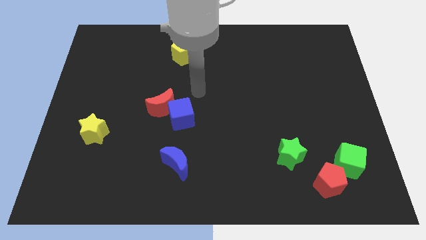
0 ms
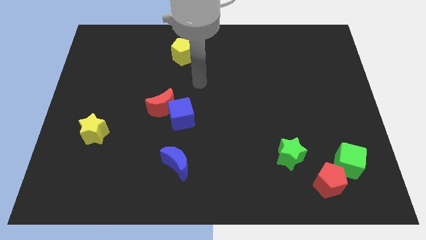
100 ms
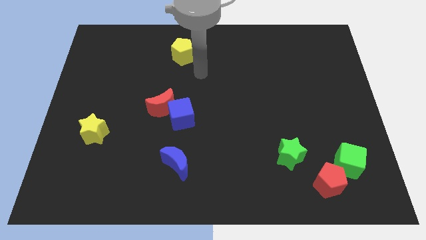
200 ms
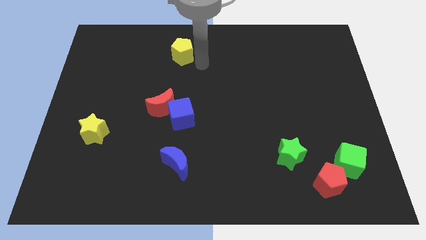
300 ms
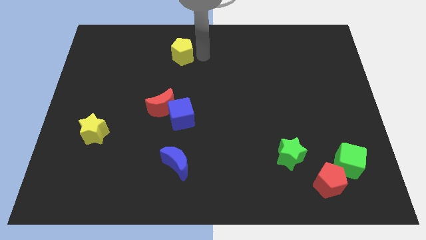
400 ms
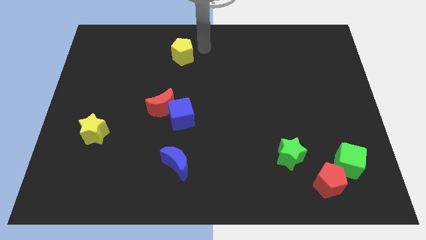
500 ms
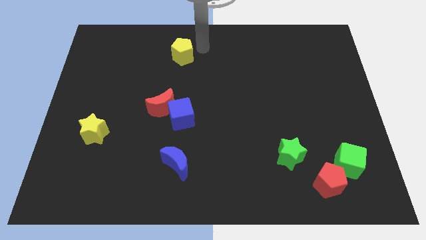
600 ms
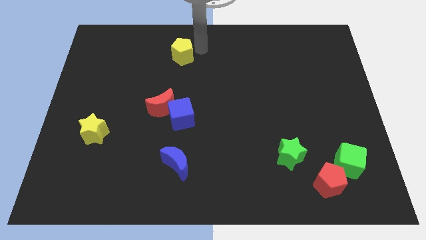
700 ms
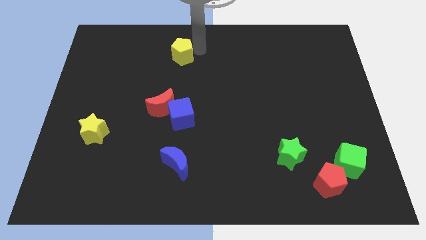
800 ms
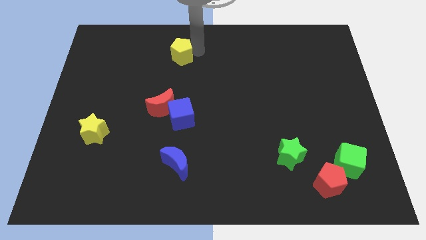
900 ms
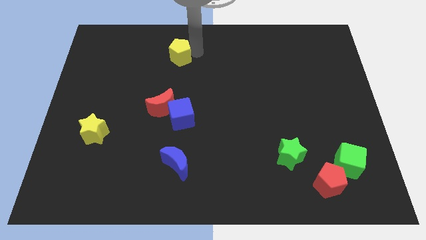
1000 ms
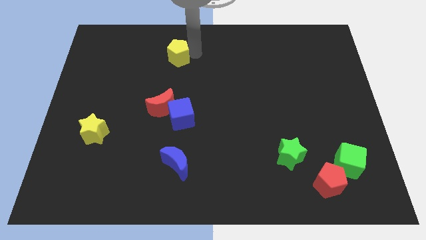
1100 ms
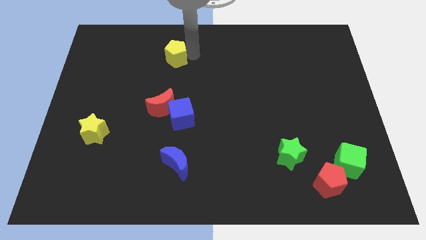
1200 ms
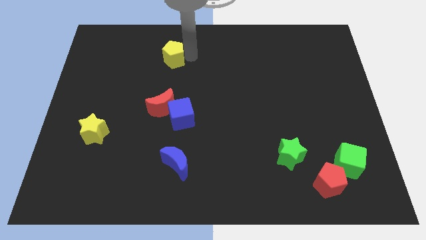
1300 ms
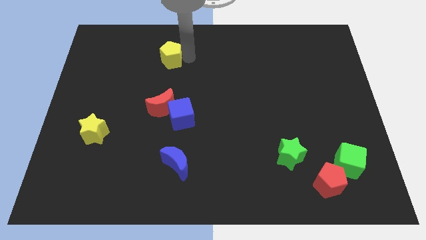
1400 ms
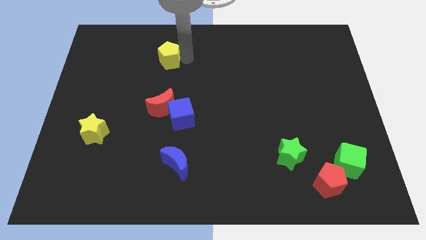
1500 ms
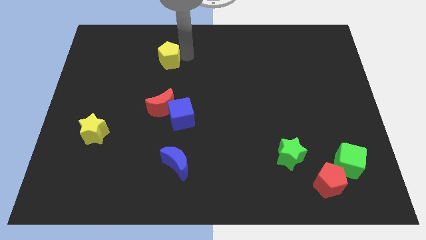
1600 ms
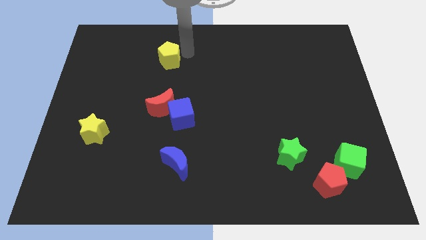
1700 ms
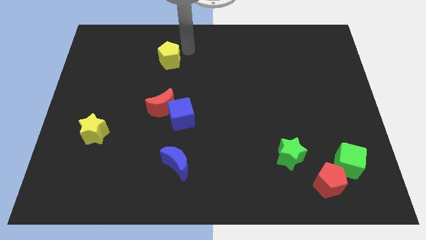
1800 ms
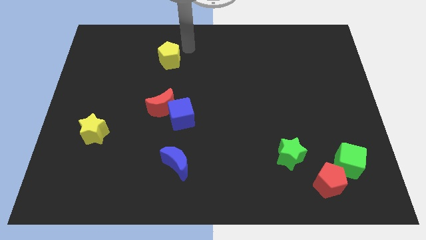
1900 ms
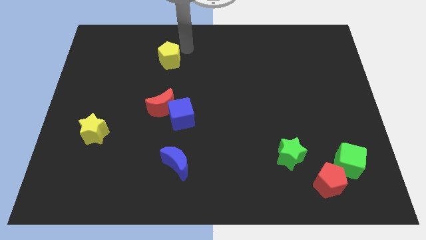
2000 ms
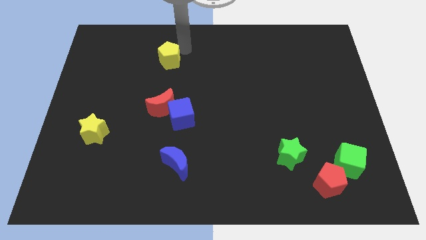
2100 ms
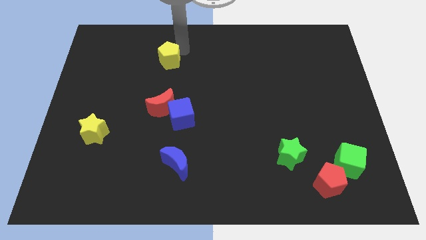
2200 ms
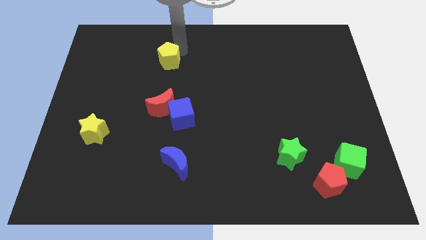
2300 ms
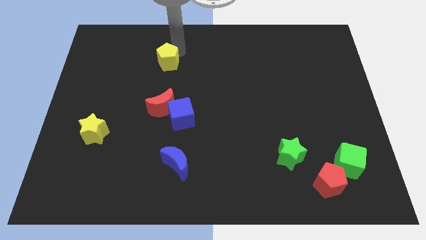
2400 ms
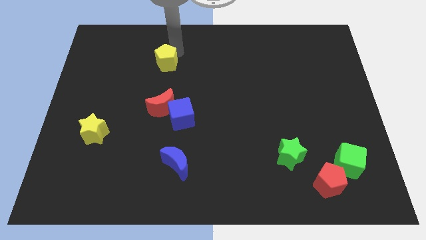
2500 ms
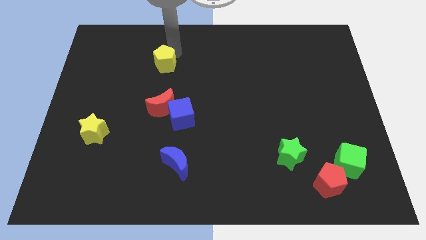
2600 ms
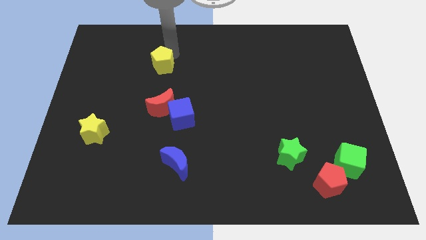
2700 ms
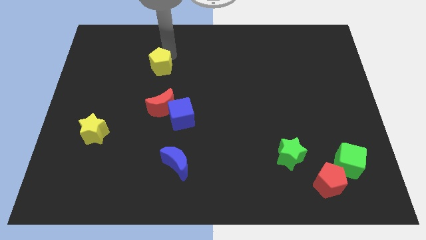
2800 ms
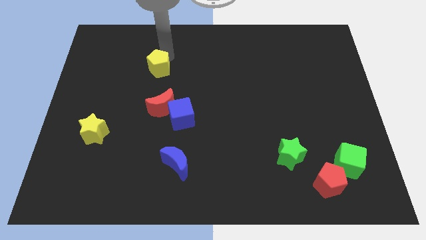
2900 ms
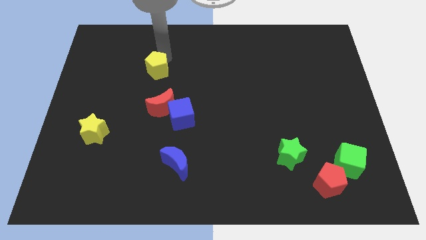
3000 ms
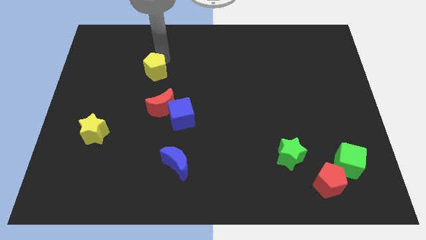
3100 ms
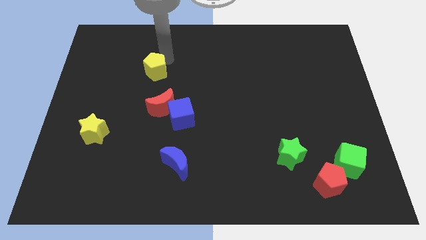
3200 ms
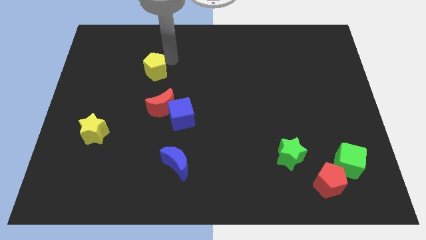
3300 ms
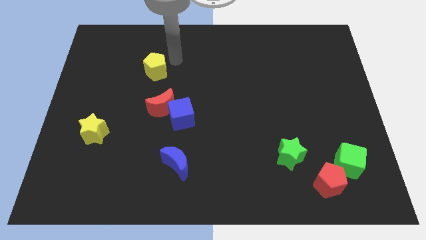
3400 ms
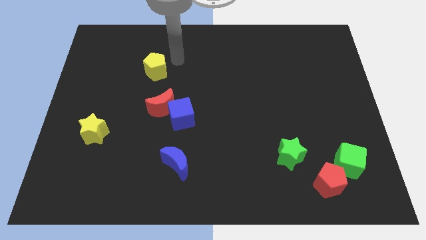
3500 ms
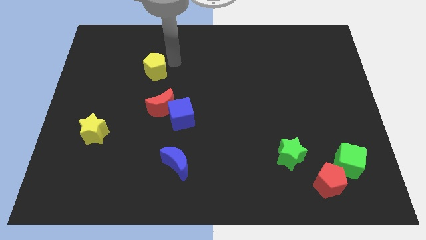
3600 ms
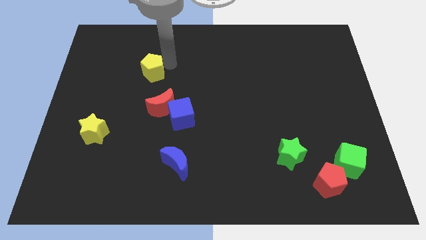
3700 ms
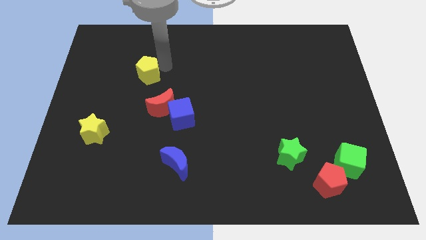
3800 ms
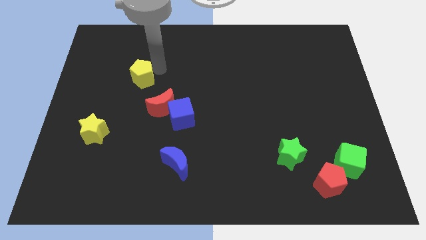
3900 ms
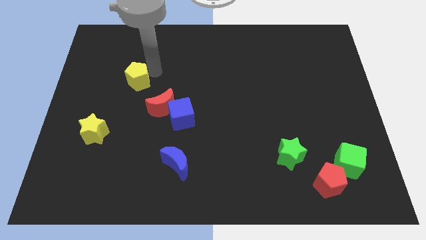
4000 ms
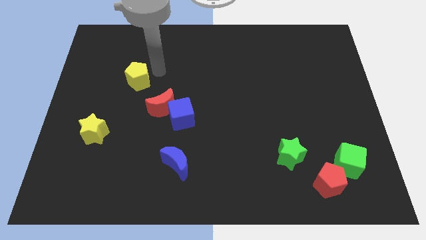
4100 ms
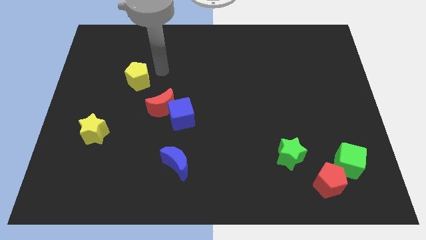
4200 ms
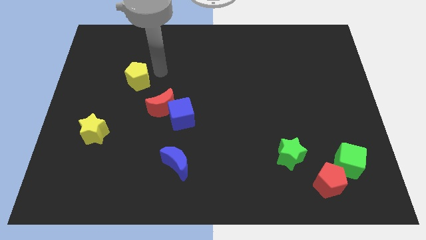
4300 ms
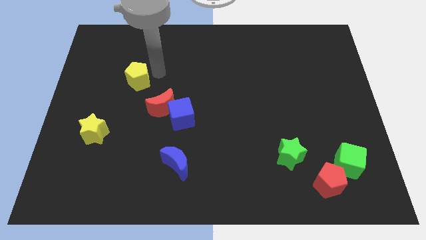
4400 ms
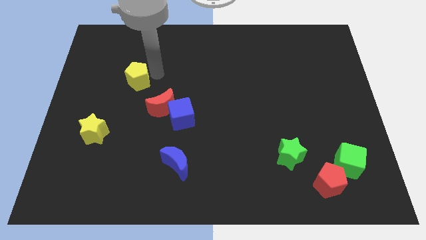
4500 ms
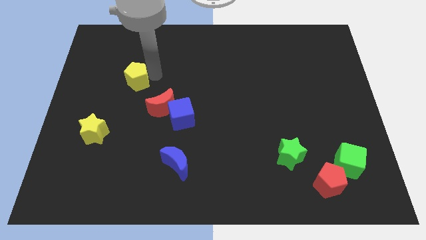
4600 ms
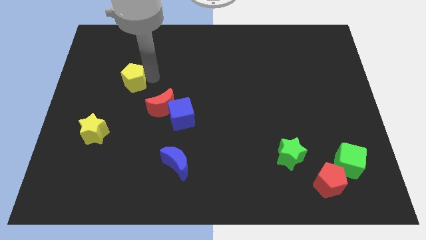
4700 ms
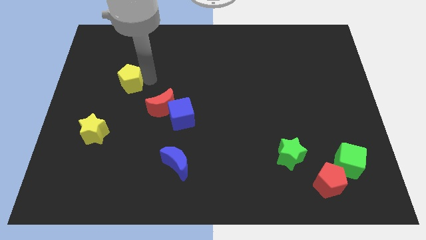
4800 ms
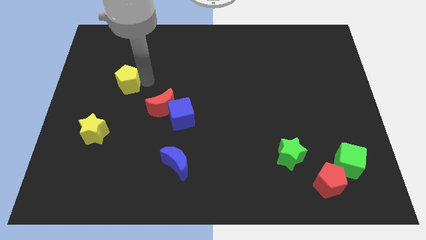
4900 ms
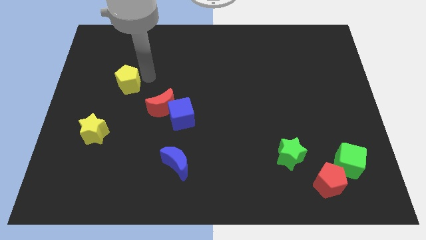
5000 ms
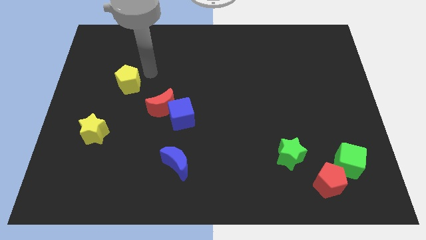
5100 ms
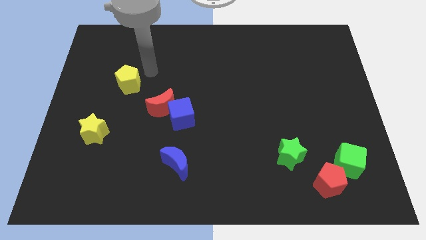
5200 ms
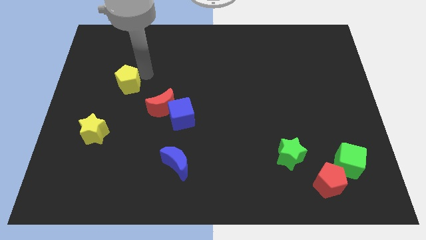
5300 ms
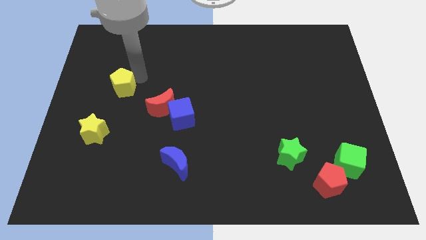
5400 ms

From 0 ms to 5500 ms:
slide the yellow pentagon to the top side of the yellow star

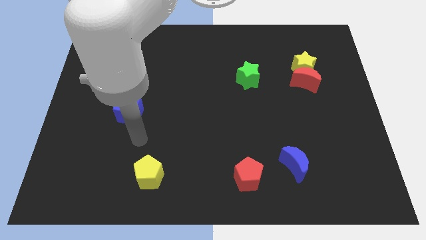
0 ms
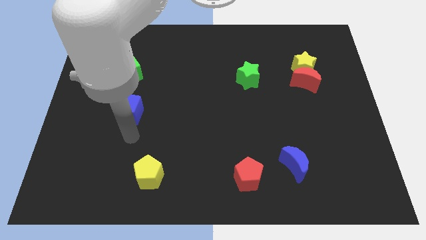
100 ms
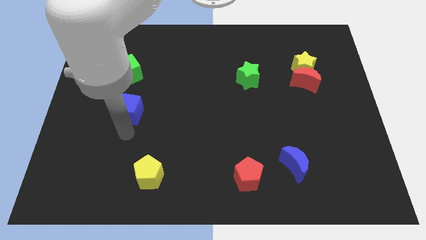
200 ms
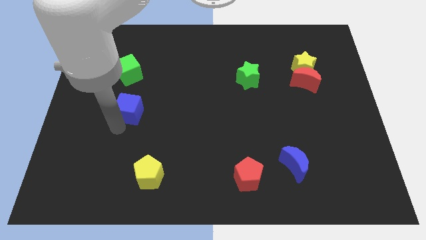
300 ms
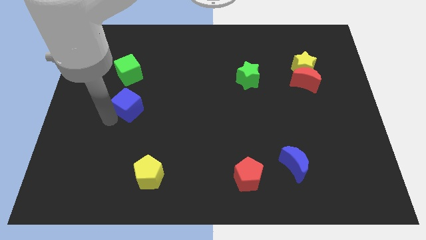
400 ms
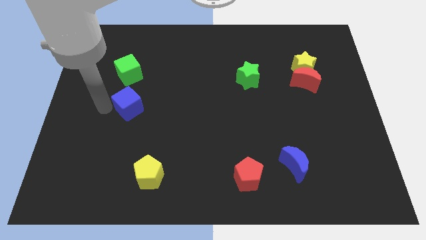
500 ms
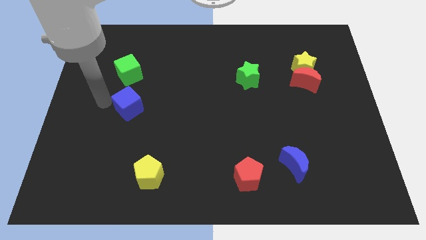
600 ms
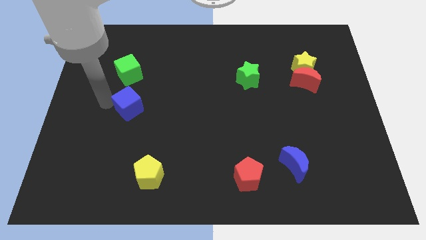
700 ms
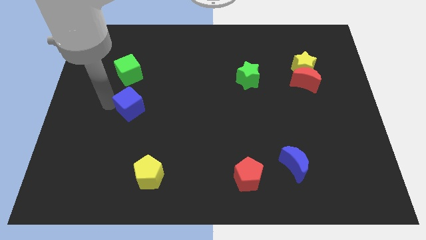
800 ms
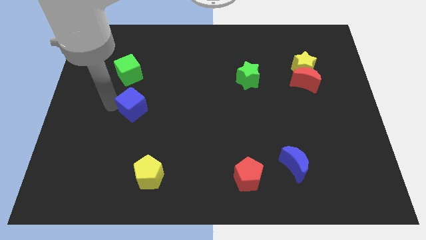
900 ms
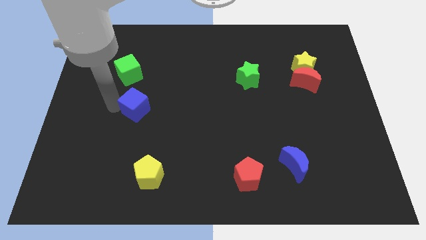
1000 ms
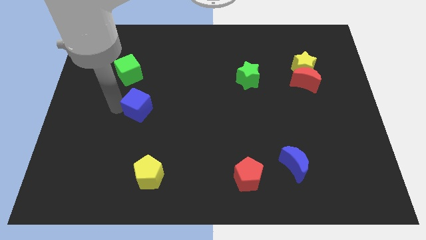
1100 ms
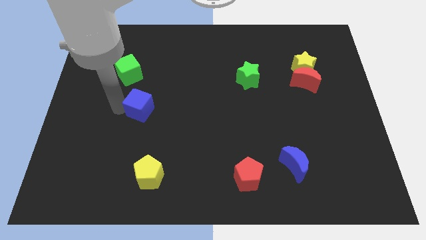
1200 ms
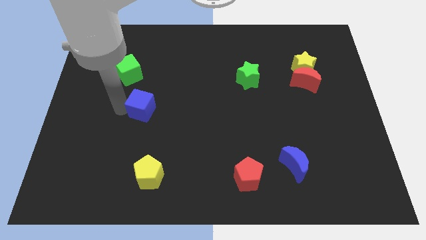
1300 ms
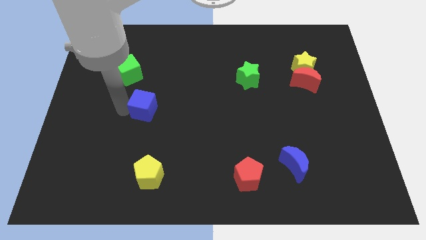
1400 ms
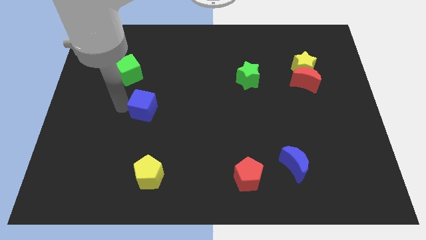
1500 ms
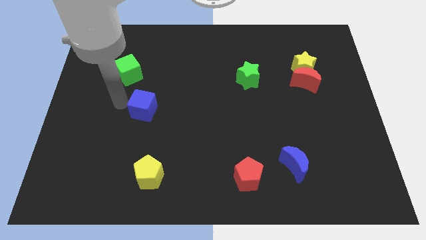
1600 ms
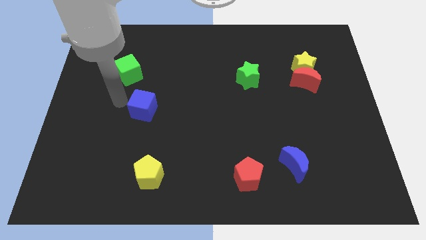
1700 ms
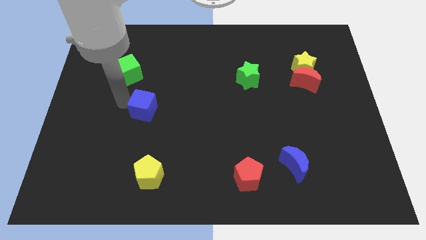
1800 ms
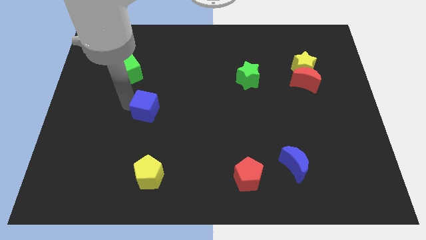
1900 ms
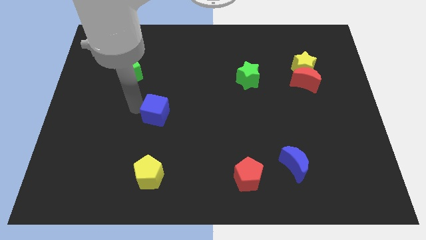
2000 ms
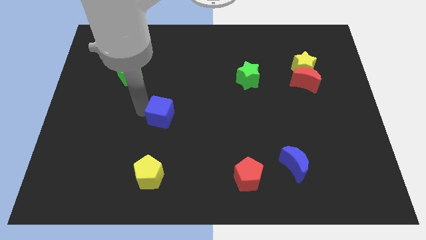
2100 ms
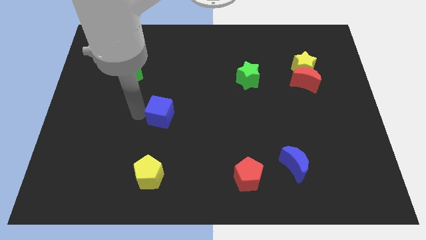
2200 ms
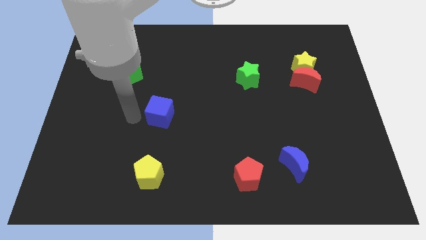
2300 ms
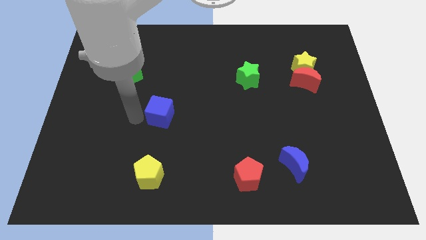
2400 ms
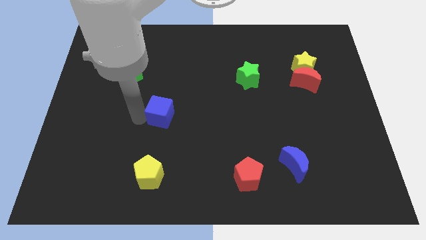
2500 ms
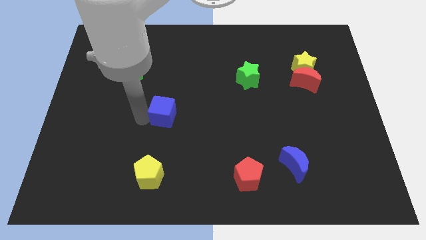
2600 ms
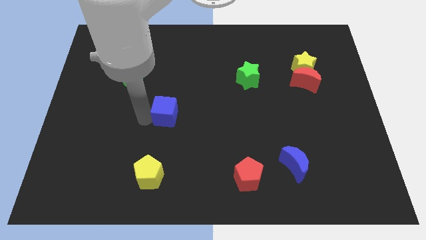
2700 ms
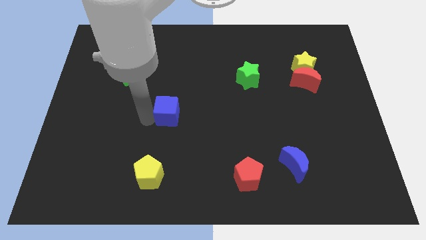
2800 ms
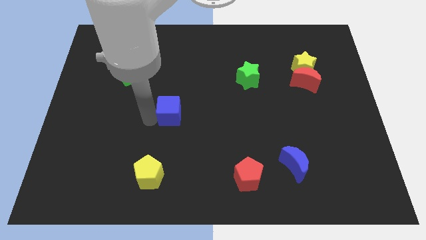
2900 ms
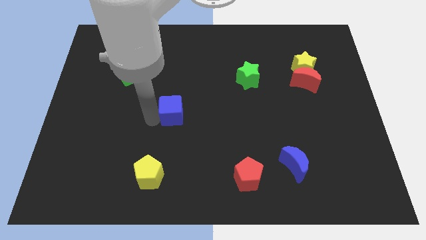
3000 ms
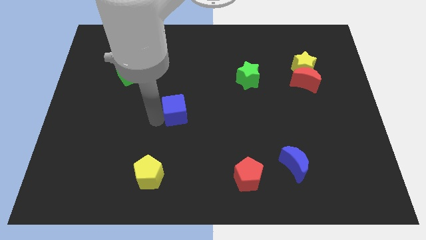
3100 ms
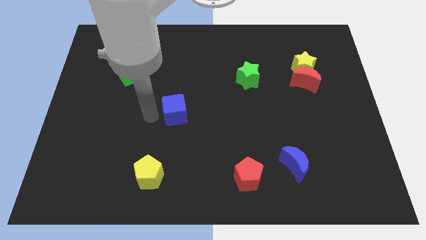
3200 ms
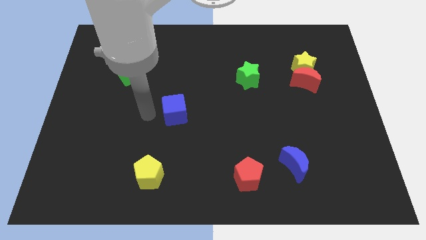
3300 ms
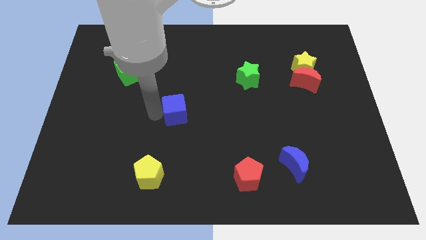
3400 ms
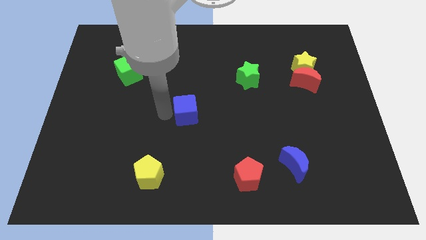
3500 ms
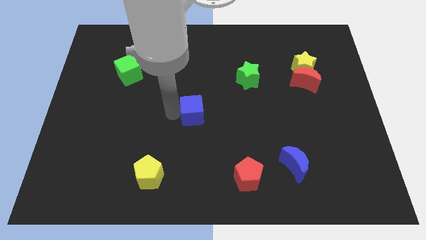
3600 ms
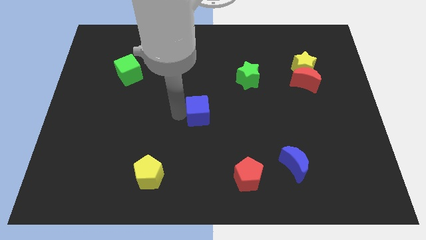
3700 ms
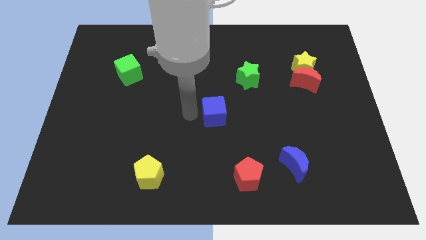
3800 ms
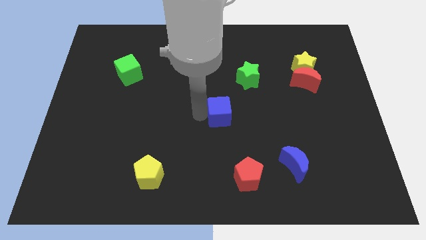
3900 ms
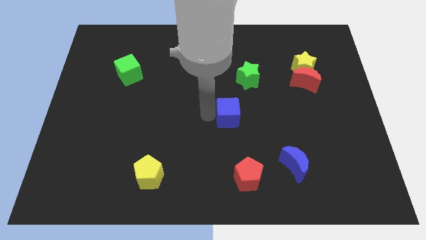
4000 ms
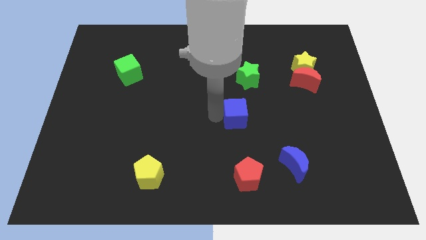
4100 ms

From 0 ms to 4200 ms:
put the blue cube to the bottom of the green star
